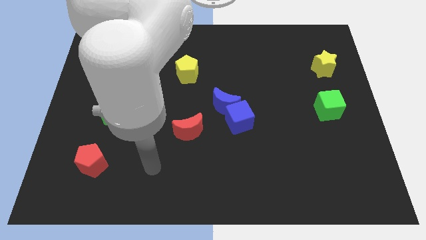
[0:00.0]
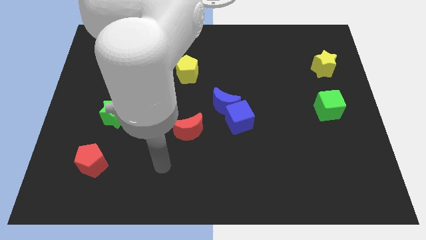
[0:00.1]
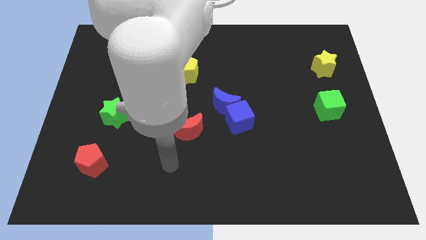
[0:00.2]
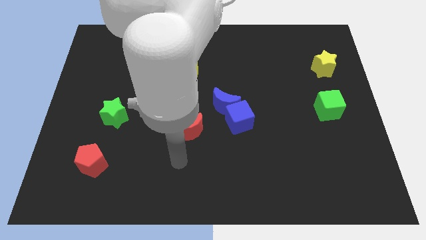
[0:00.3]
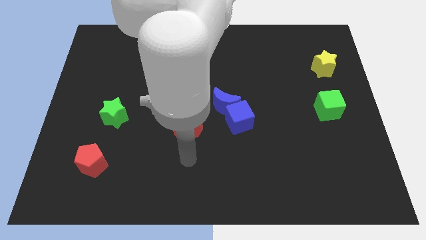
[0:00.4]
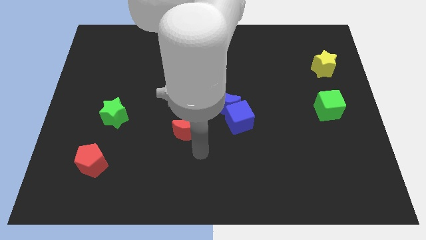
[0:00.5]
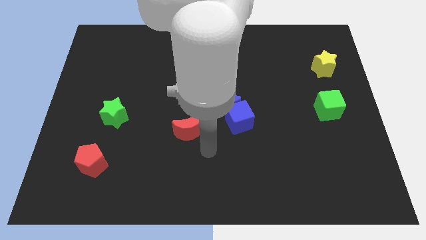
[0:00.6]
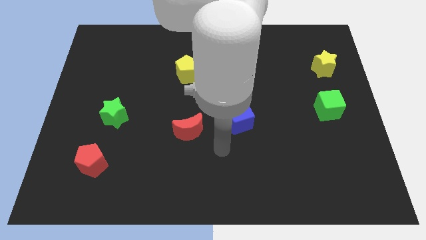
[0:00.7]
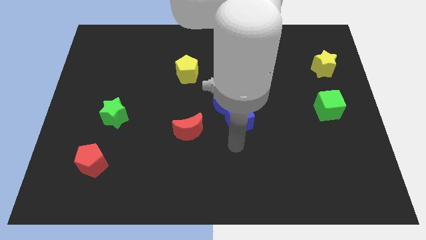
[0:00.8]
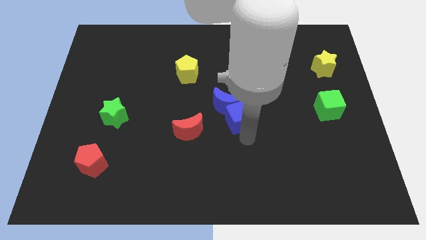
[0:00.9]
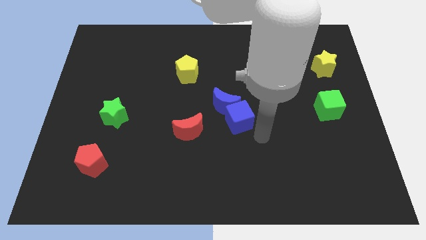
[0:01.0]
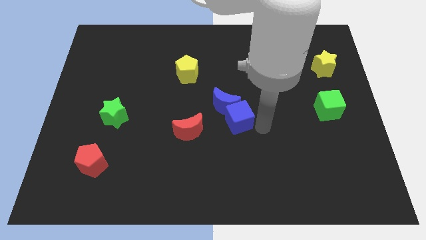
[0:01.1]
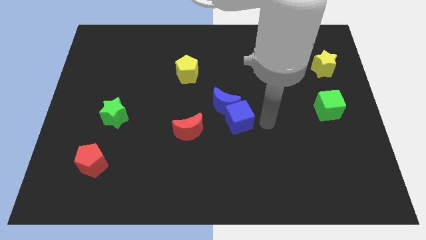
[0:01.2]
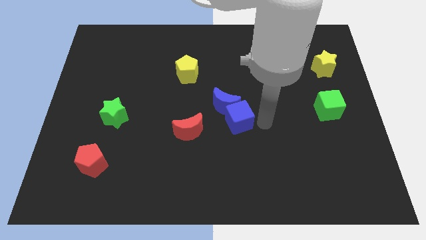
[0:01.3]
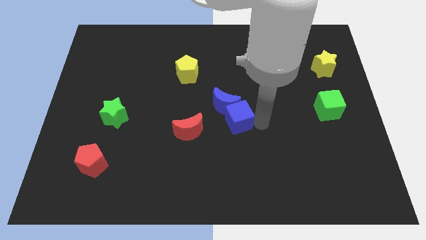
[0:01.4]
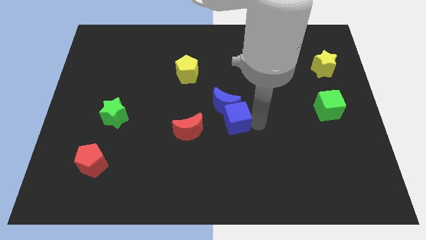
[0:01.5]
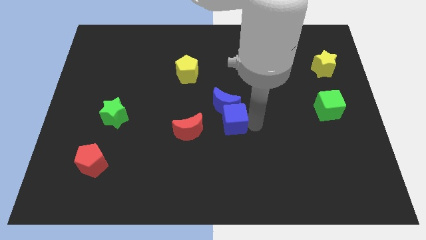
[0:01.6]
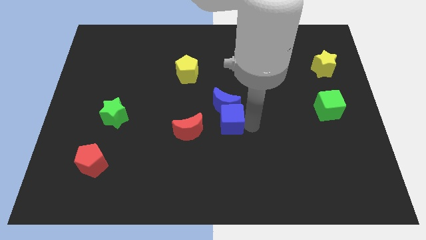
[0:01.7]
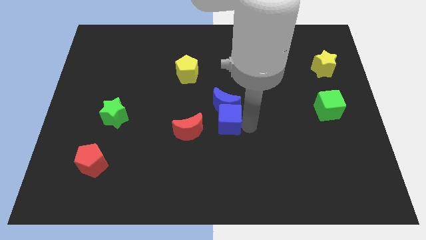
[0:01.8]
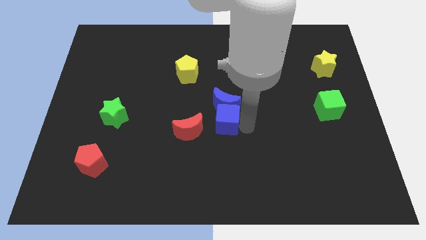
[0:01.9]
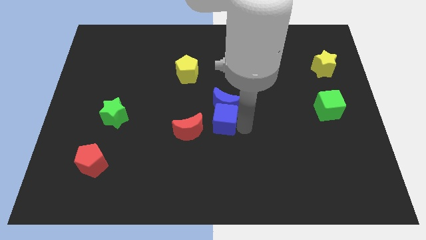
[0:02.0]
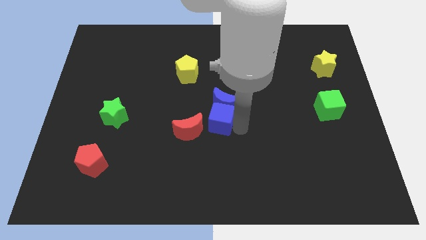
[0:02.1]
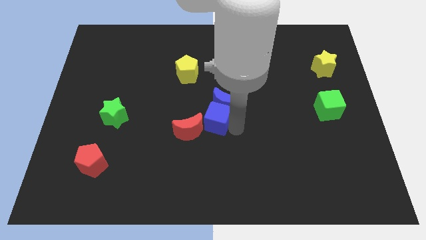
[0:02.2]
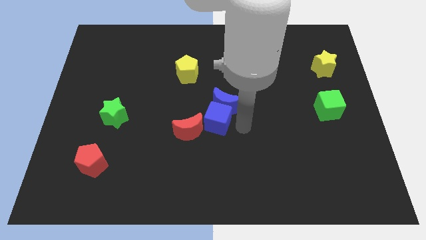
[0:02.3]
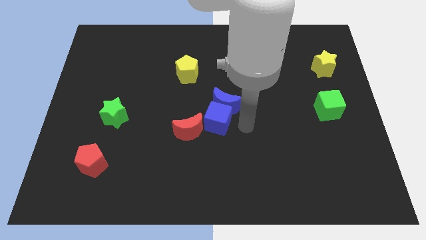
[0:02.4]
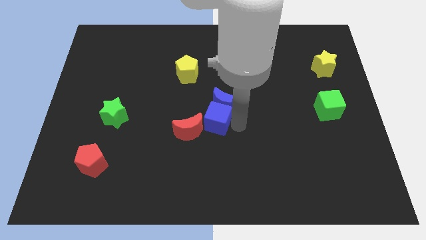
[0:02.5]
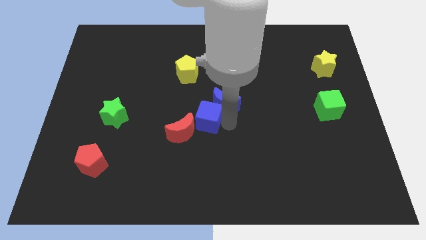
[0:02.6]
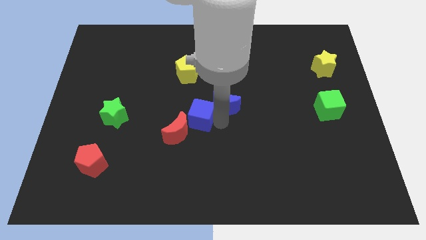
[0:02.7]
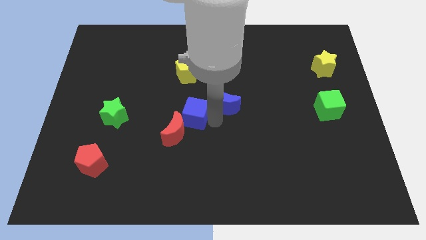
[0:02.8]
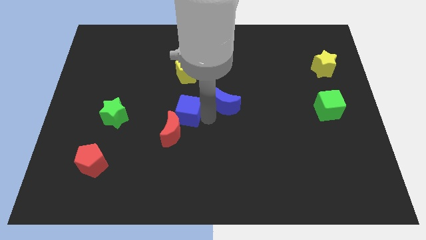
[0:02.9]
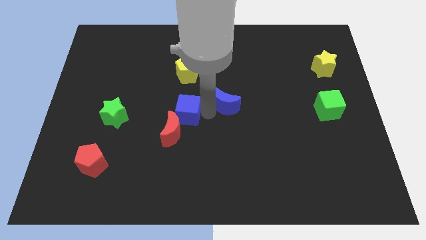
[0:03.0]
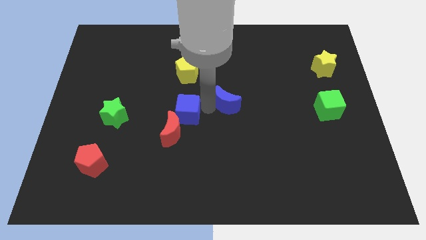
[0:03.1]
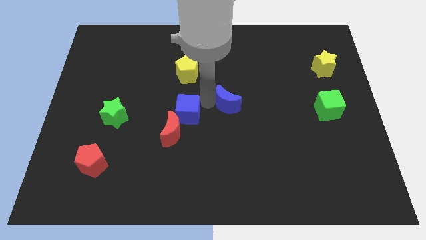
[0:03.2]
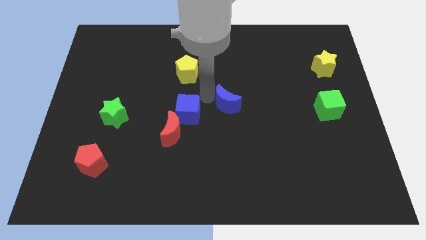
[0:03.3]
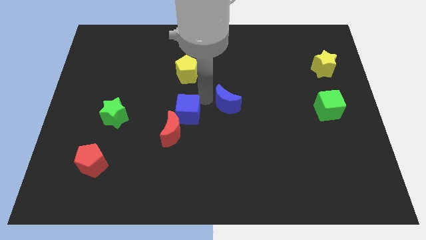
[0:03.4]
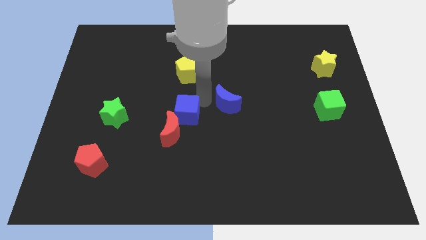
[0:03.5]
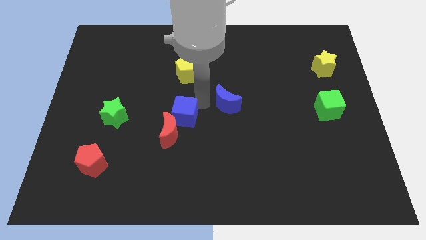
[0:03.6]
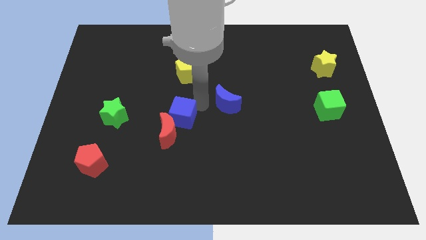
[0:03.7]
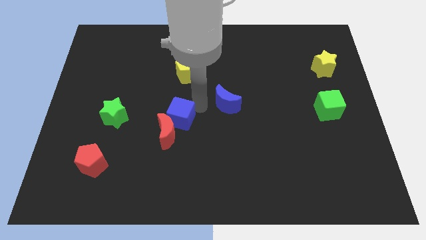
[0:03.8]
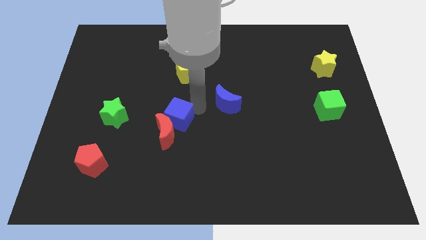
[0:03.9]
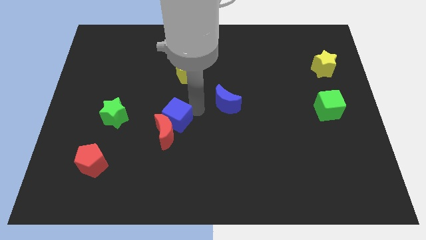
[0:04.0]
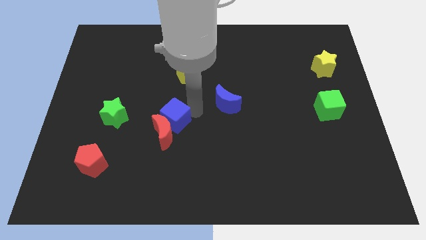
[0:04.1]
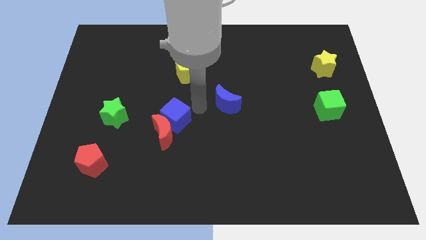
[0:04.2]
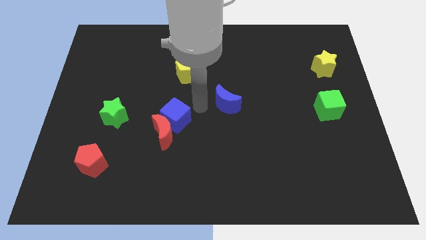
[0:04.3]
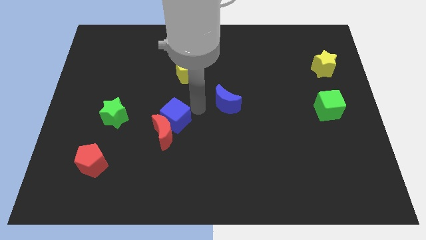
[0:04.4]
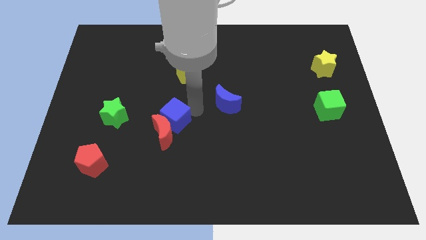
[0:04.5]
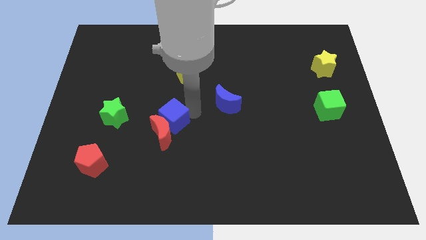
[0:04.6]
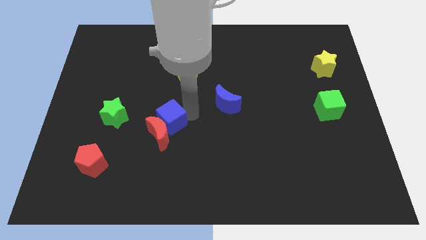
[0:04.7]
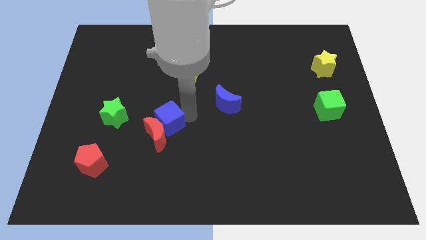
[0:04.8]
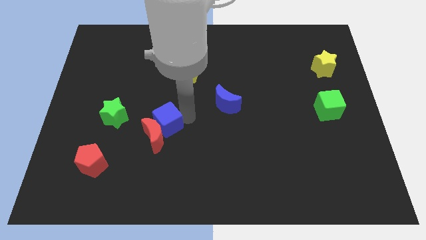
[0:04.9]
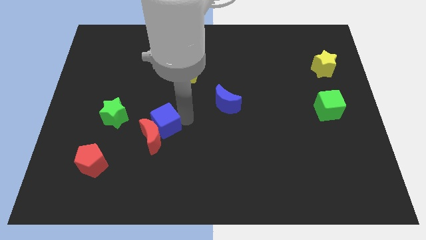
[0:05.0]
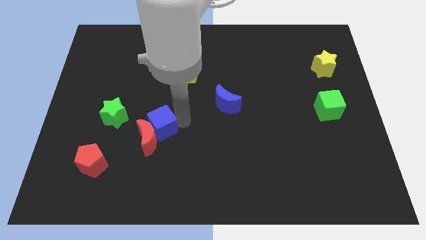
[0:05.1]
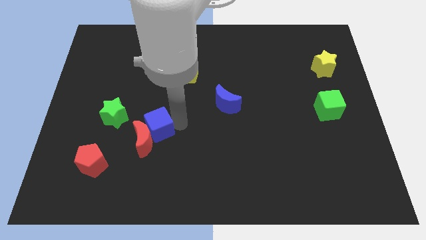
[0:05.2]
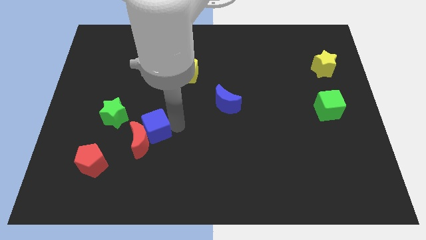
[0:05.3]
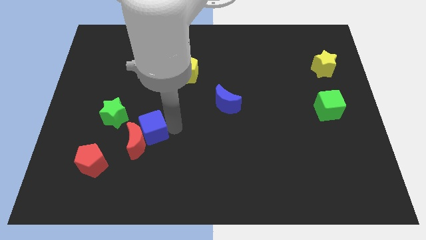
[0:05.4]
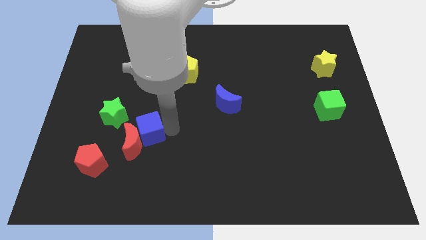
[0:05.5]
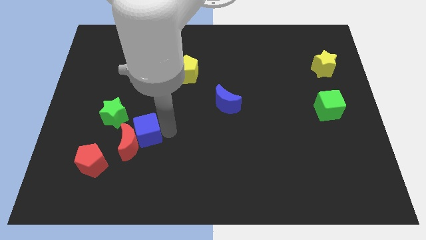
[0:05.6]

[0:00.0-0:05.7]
move the blue cube left

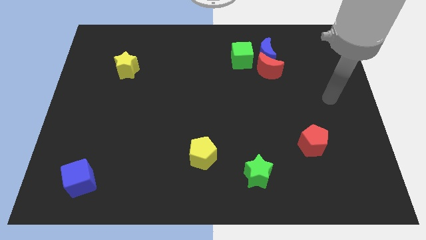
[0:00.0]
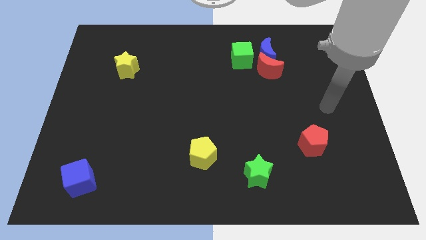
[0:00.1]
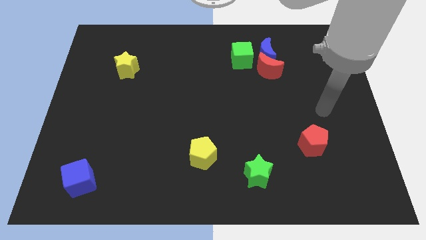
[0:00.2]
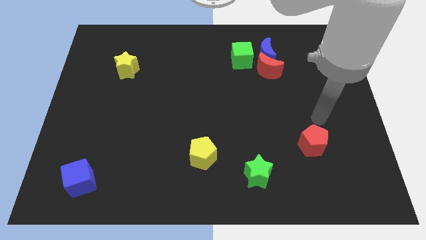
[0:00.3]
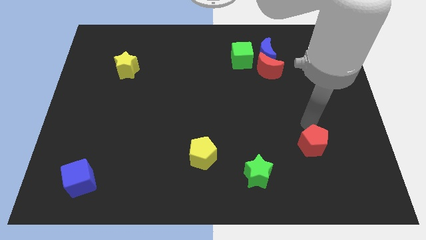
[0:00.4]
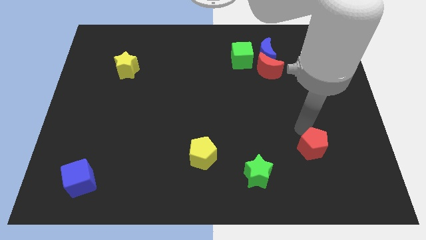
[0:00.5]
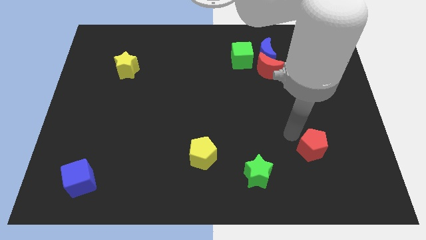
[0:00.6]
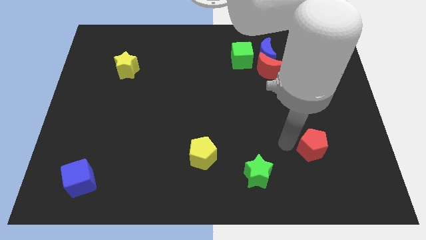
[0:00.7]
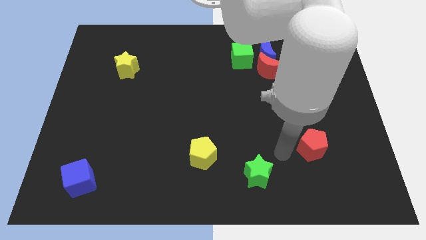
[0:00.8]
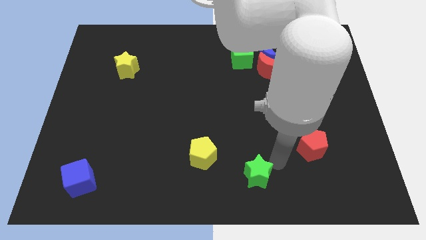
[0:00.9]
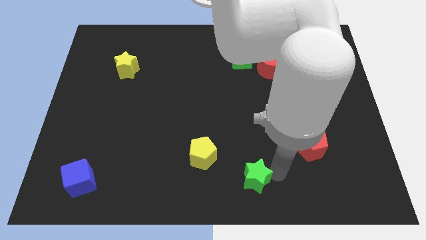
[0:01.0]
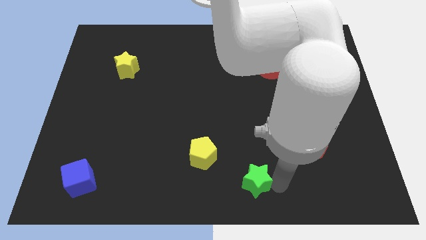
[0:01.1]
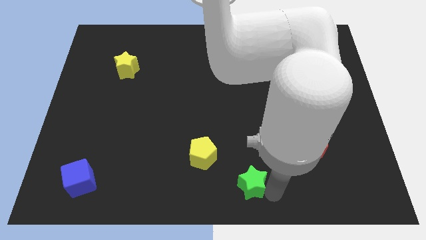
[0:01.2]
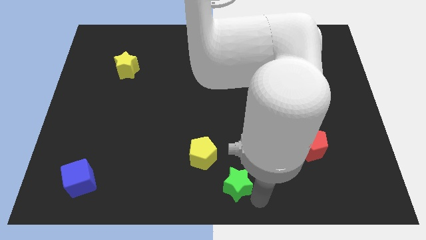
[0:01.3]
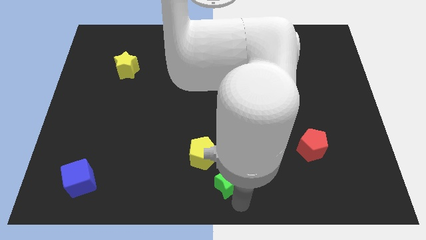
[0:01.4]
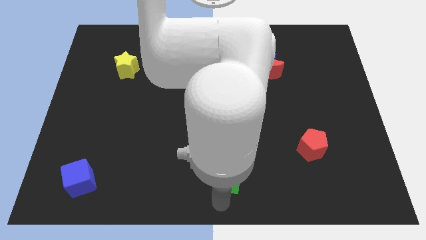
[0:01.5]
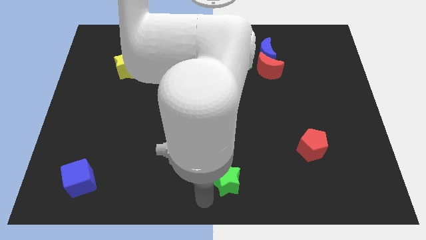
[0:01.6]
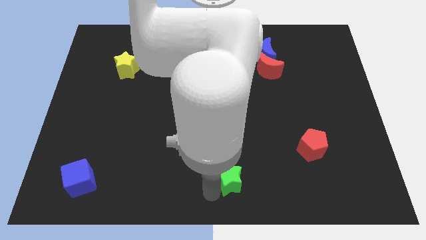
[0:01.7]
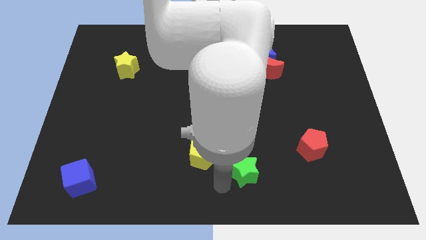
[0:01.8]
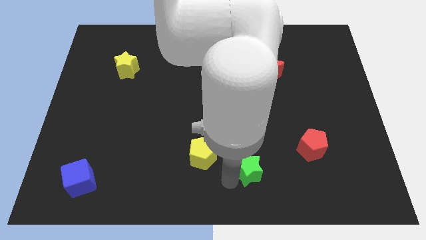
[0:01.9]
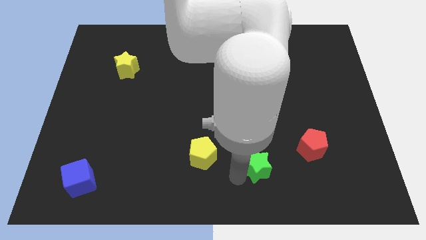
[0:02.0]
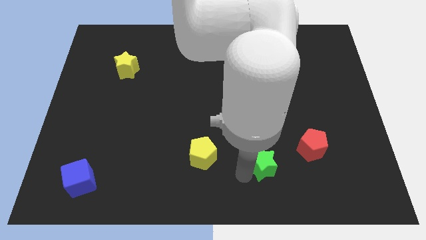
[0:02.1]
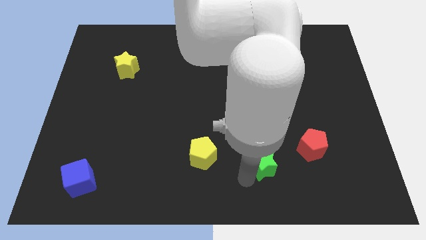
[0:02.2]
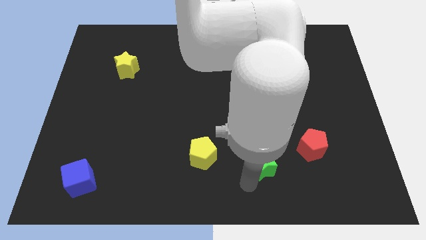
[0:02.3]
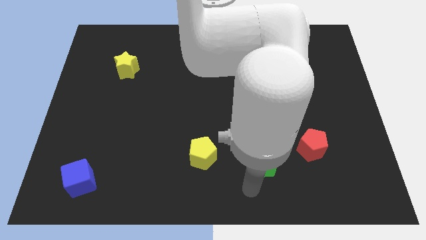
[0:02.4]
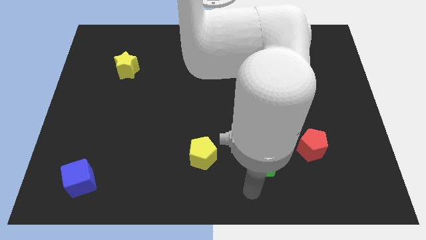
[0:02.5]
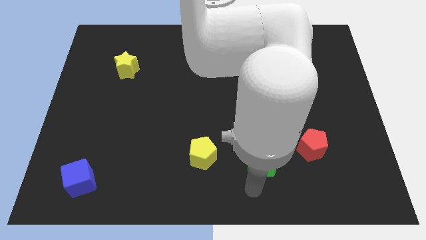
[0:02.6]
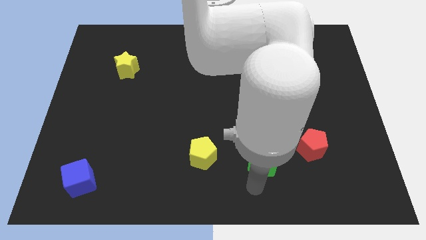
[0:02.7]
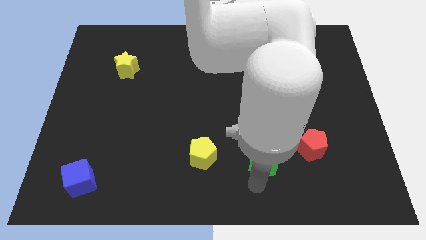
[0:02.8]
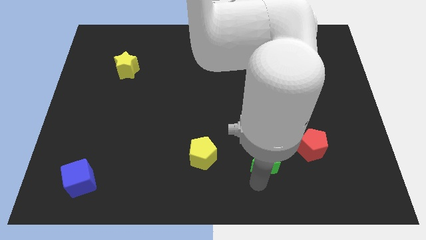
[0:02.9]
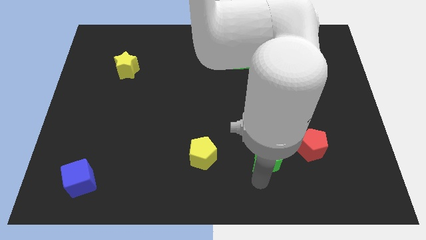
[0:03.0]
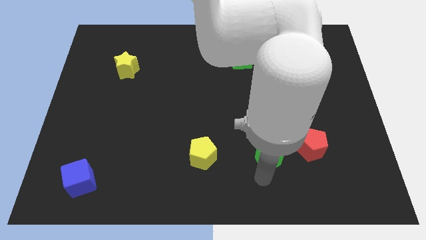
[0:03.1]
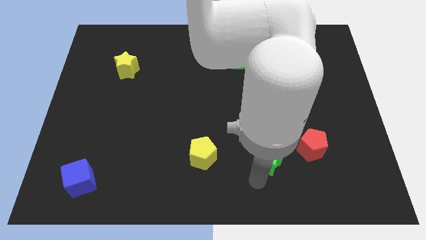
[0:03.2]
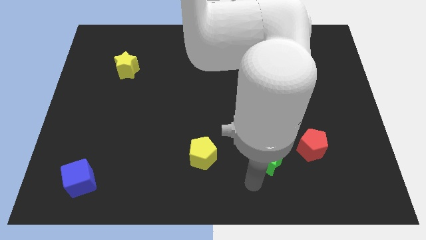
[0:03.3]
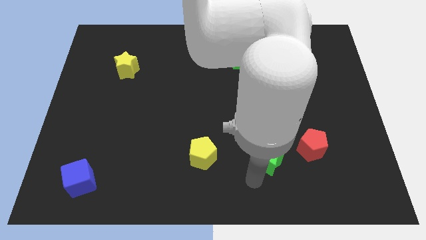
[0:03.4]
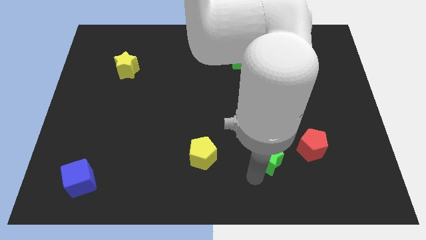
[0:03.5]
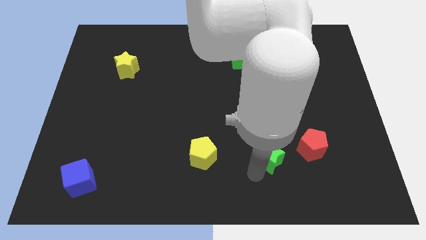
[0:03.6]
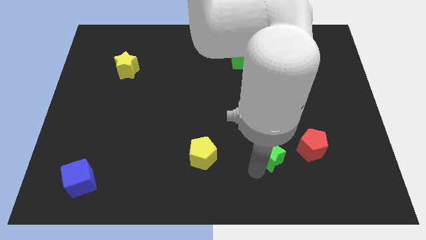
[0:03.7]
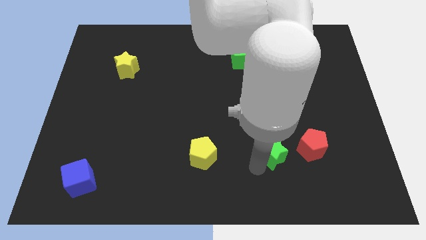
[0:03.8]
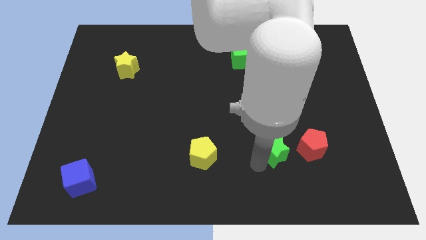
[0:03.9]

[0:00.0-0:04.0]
move the green star upwards and then to the right a little
